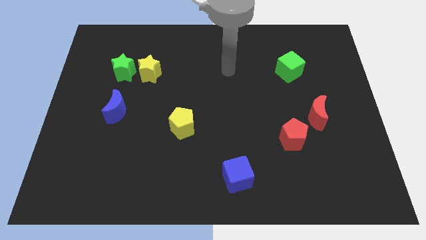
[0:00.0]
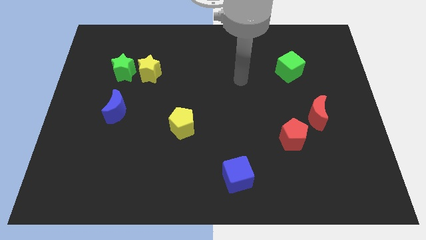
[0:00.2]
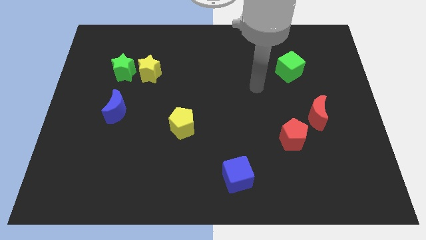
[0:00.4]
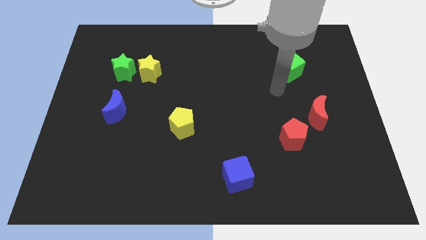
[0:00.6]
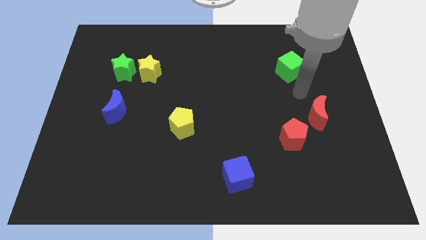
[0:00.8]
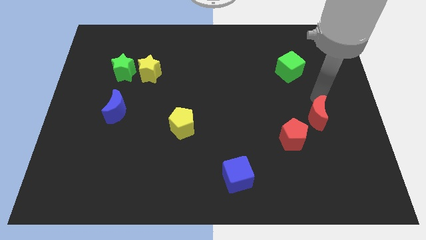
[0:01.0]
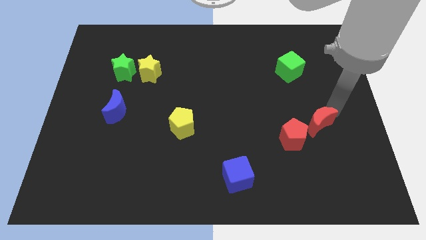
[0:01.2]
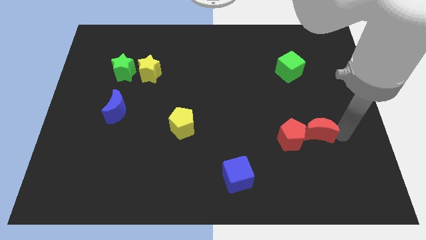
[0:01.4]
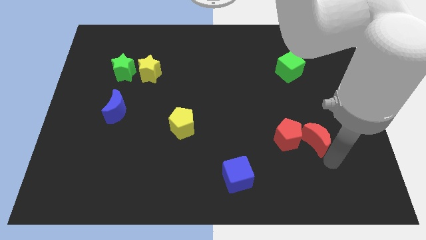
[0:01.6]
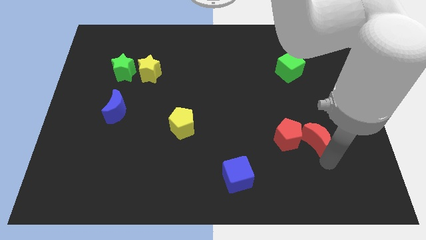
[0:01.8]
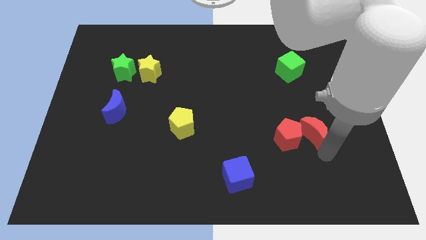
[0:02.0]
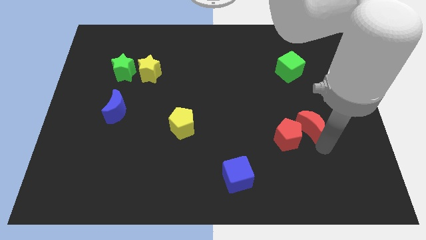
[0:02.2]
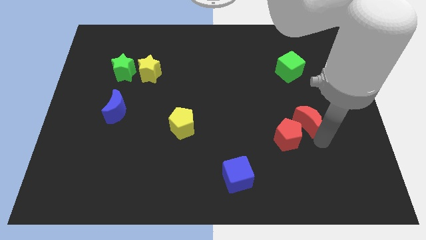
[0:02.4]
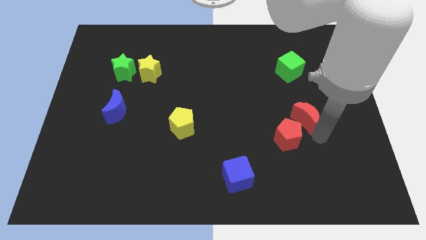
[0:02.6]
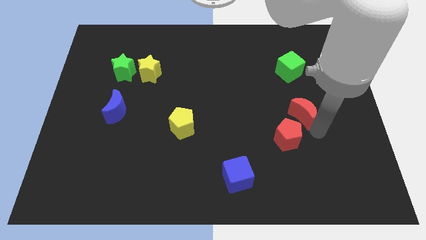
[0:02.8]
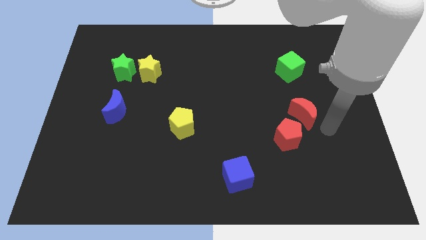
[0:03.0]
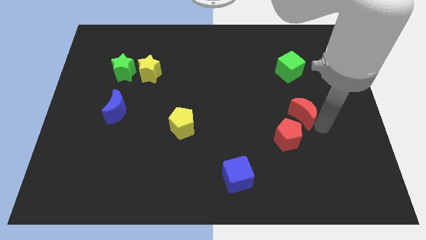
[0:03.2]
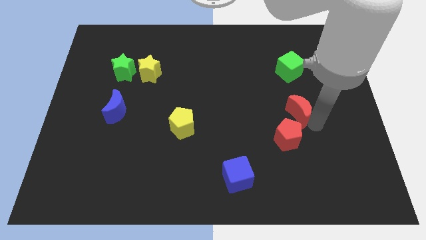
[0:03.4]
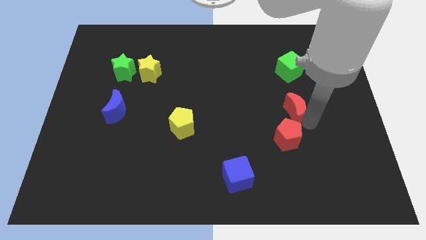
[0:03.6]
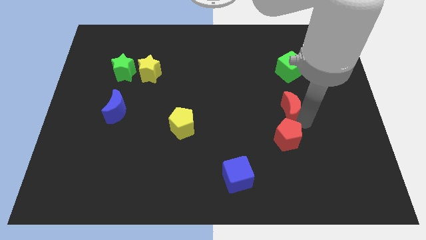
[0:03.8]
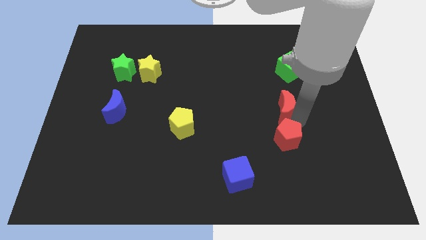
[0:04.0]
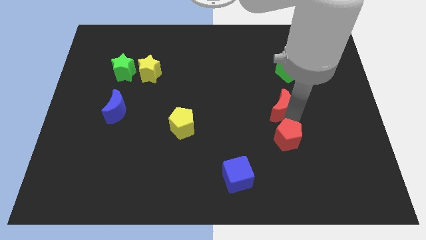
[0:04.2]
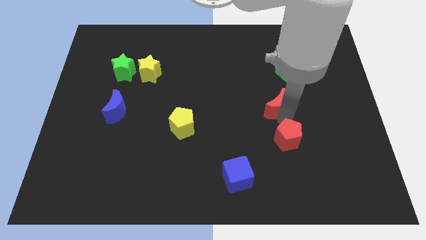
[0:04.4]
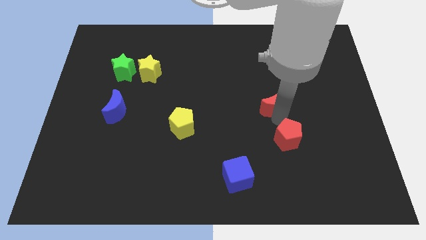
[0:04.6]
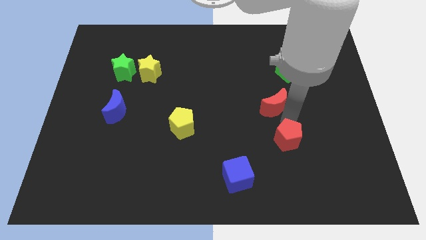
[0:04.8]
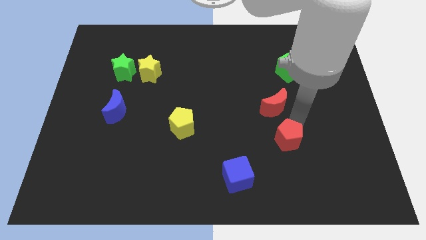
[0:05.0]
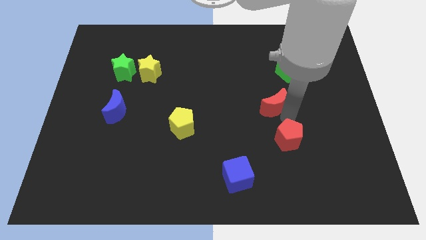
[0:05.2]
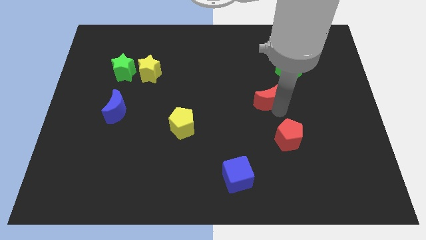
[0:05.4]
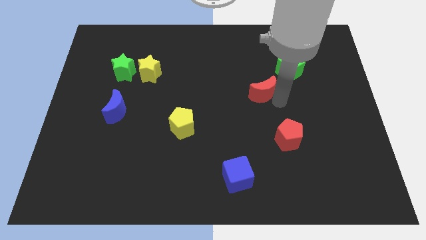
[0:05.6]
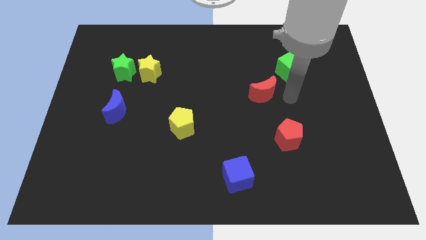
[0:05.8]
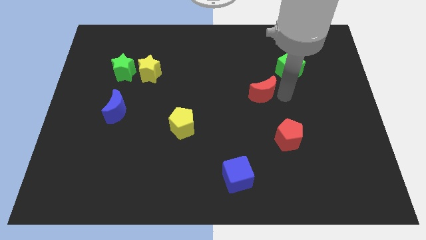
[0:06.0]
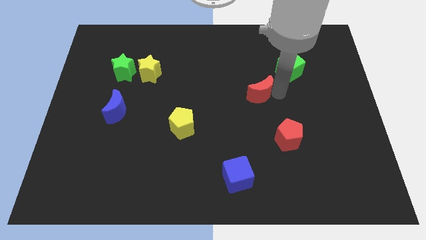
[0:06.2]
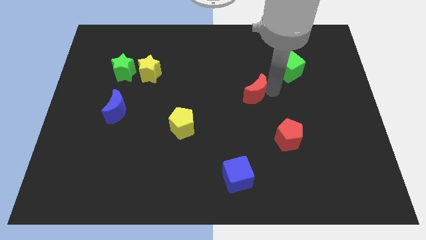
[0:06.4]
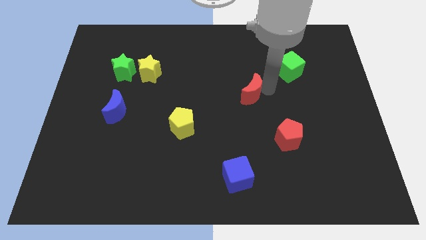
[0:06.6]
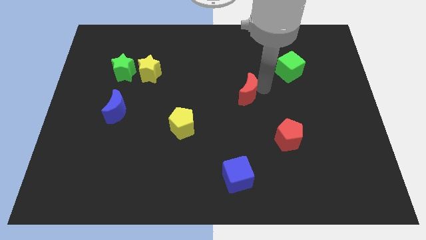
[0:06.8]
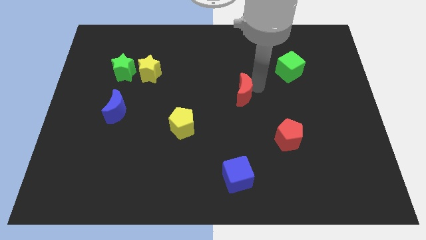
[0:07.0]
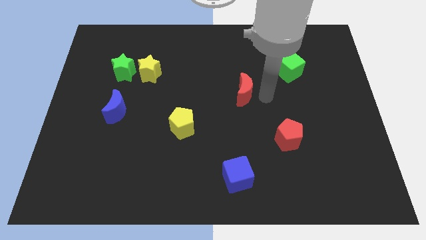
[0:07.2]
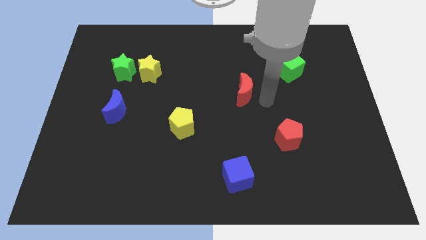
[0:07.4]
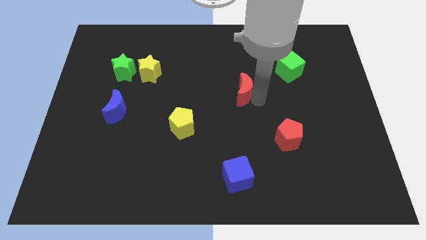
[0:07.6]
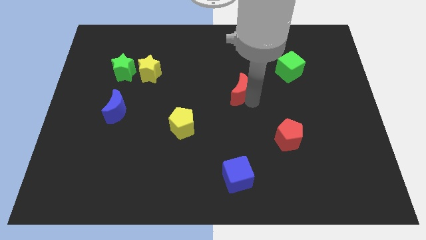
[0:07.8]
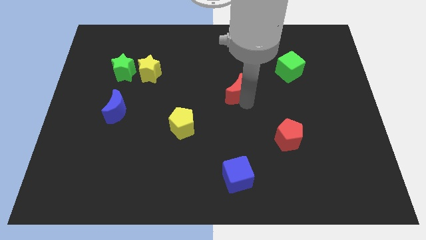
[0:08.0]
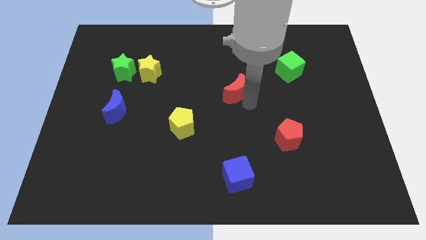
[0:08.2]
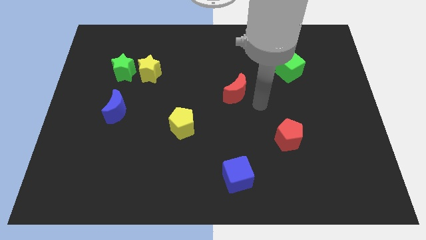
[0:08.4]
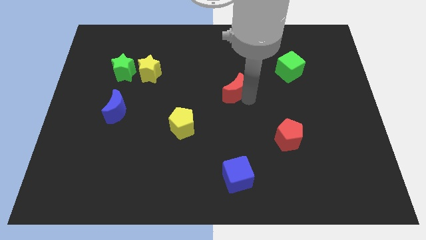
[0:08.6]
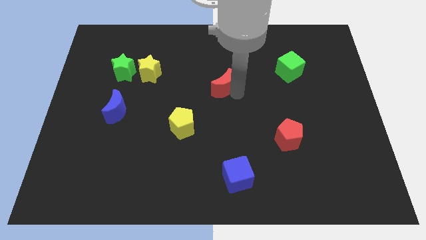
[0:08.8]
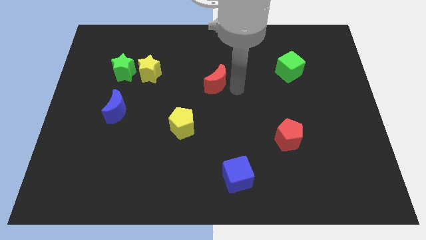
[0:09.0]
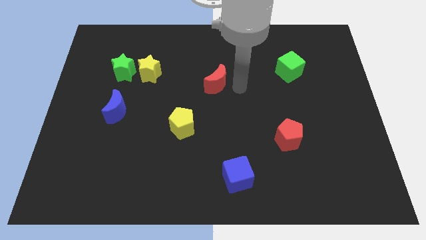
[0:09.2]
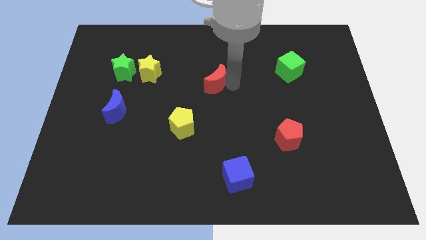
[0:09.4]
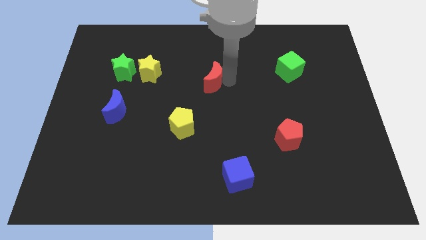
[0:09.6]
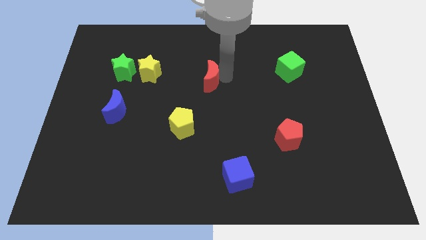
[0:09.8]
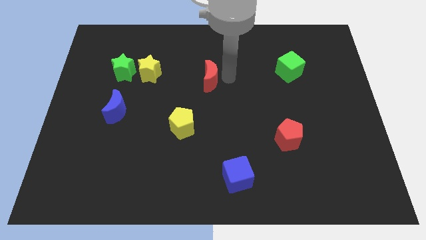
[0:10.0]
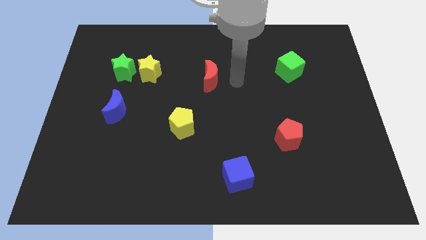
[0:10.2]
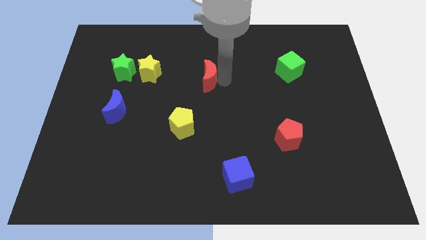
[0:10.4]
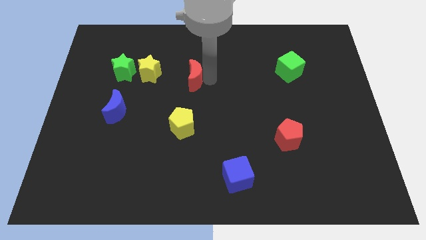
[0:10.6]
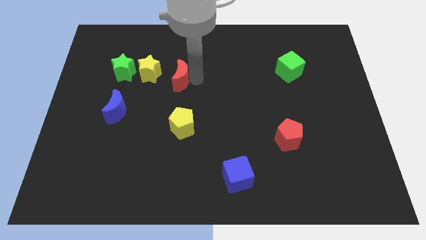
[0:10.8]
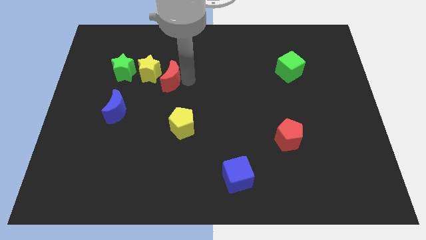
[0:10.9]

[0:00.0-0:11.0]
put the red moon to the yellow star

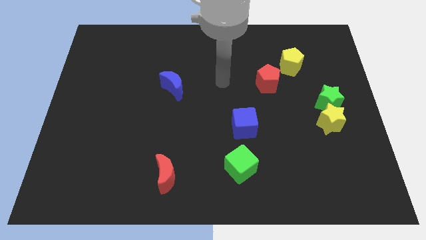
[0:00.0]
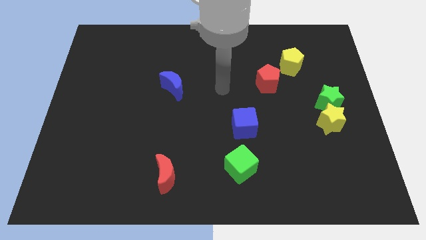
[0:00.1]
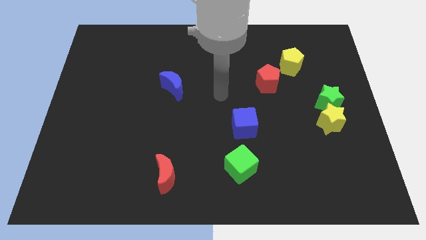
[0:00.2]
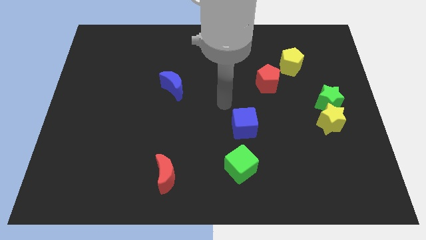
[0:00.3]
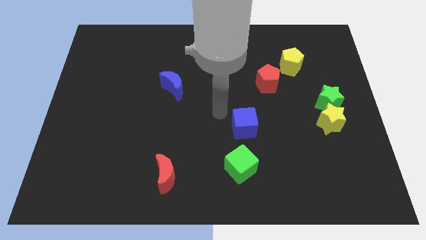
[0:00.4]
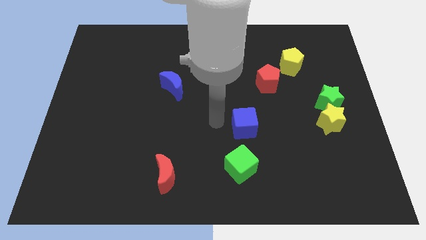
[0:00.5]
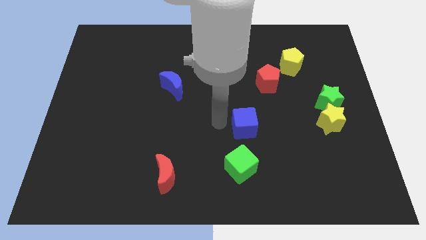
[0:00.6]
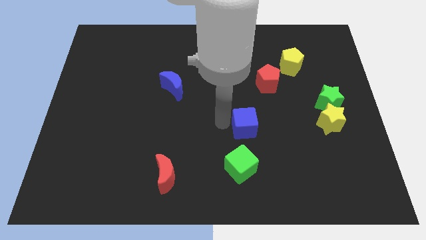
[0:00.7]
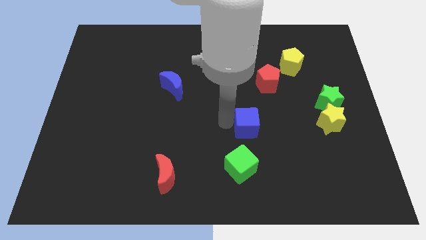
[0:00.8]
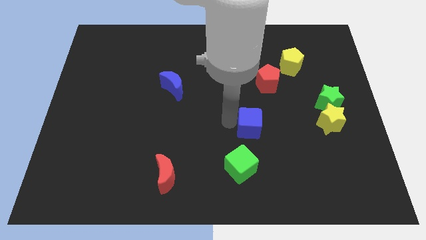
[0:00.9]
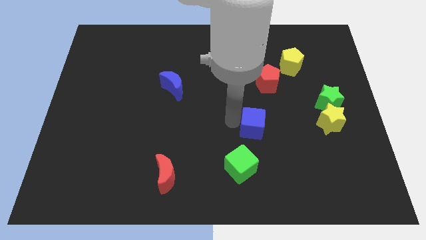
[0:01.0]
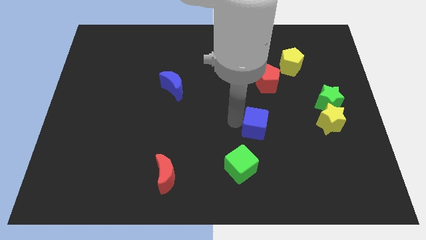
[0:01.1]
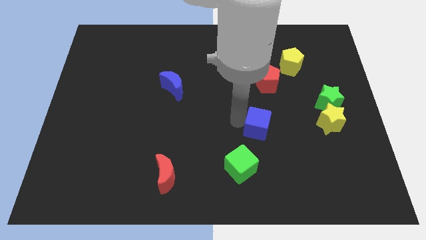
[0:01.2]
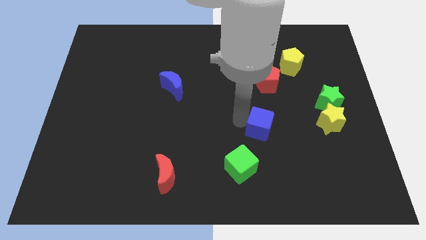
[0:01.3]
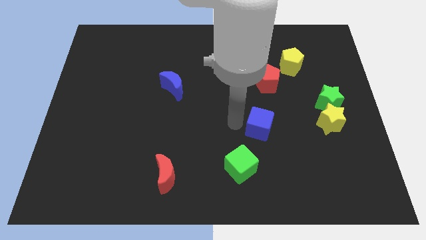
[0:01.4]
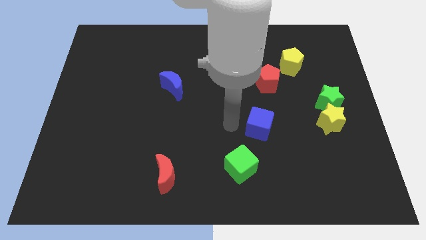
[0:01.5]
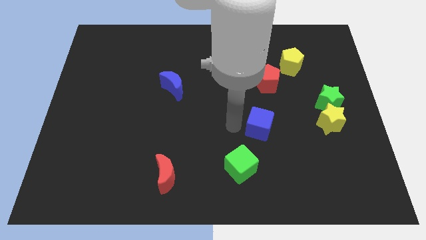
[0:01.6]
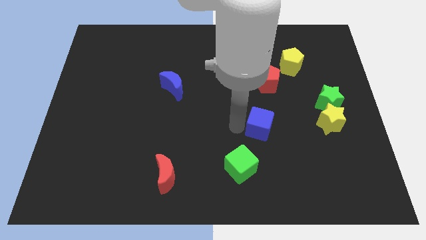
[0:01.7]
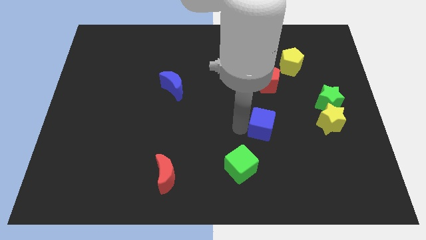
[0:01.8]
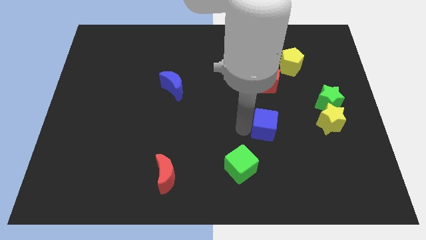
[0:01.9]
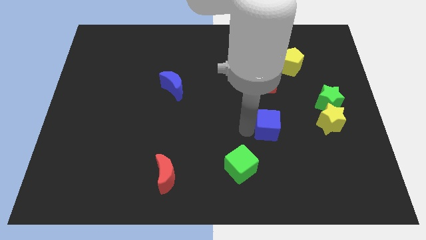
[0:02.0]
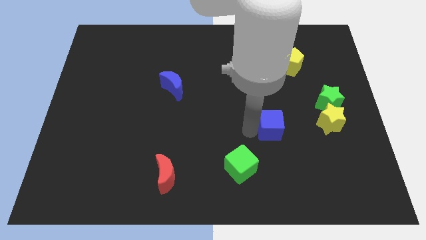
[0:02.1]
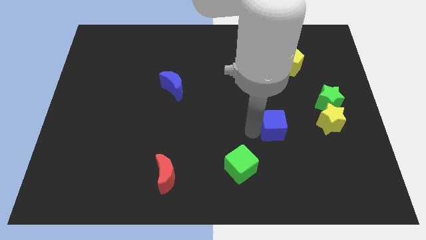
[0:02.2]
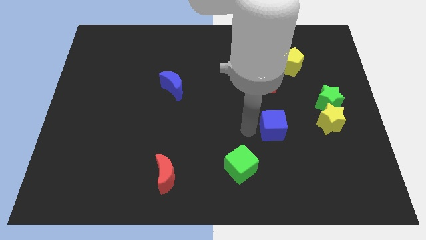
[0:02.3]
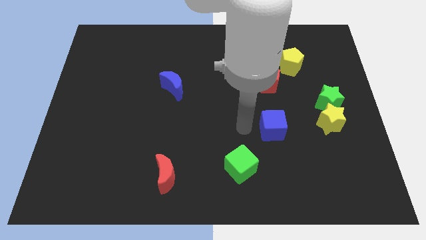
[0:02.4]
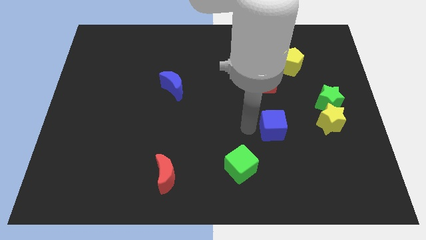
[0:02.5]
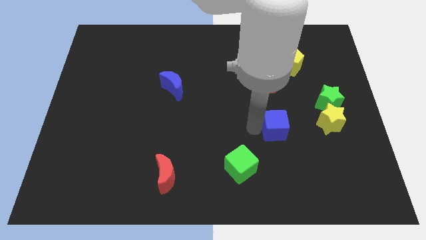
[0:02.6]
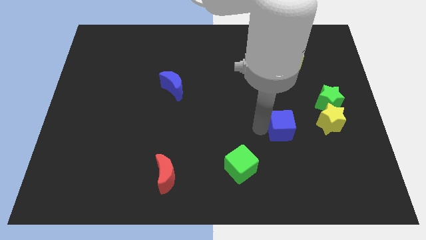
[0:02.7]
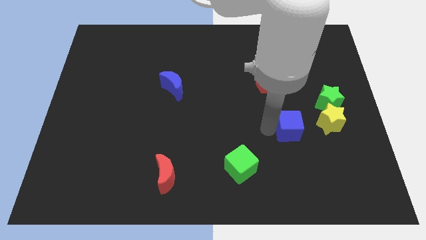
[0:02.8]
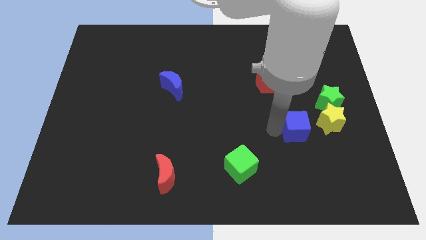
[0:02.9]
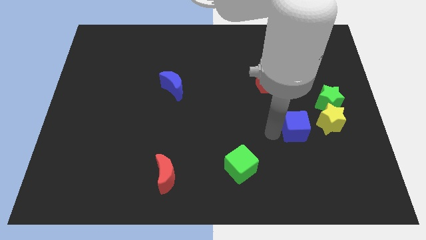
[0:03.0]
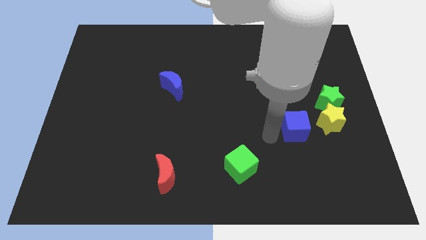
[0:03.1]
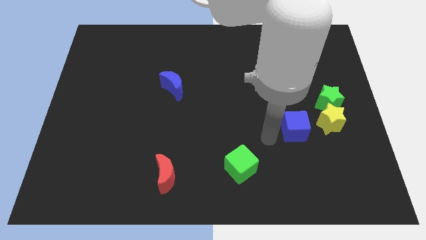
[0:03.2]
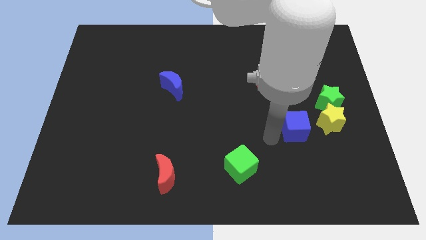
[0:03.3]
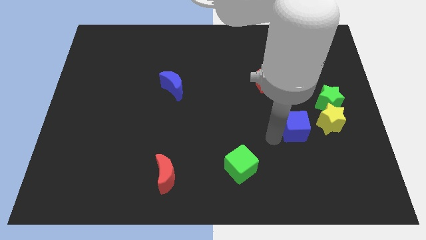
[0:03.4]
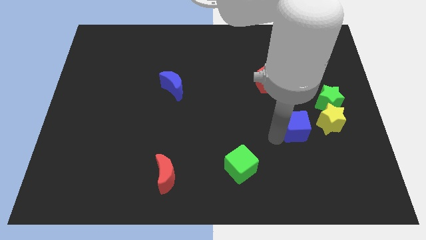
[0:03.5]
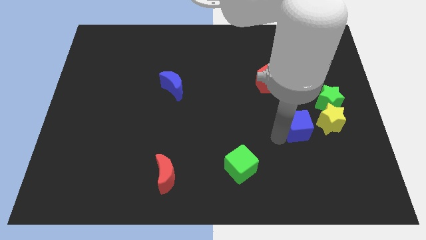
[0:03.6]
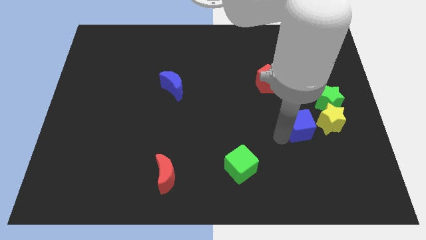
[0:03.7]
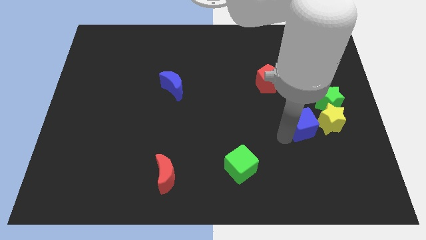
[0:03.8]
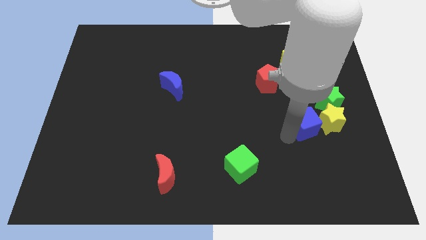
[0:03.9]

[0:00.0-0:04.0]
put the blue cube towards the yellow star
